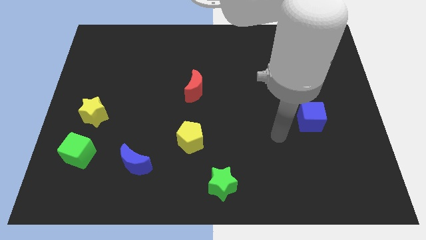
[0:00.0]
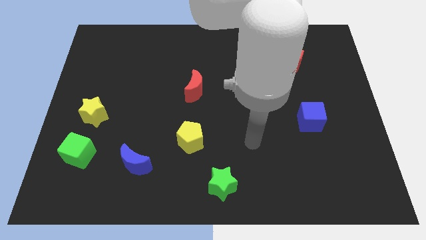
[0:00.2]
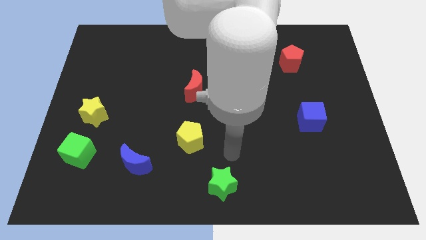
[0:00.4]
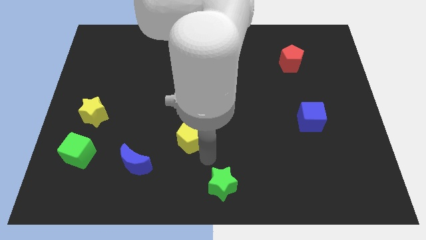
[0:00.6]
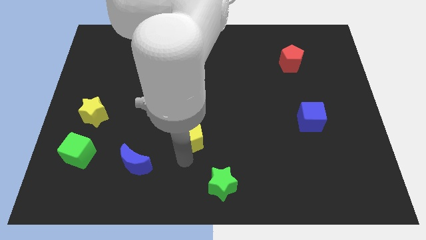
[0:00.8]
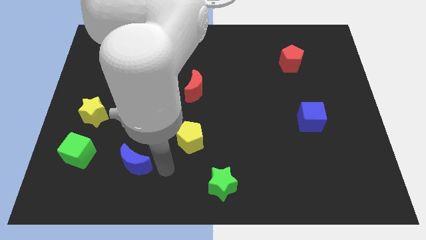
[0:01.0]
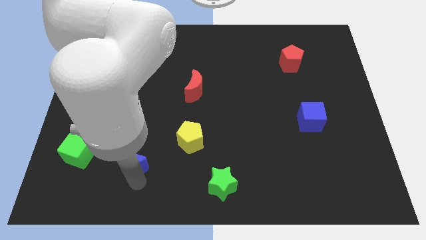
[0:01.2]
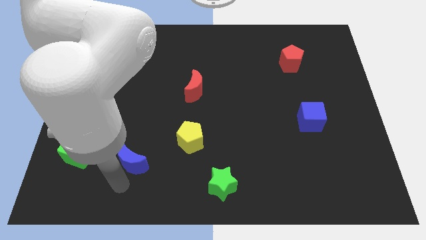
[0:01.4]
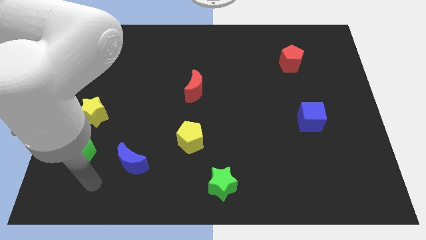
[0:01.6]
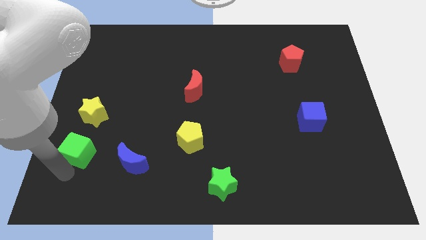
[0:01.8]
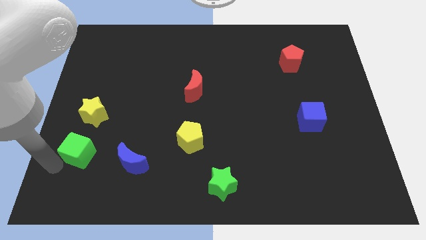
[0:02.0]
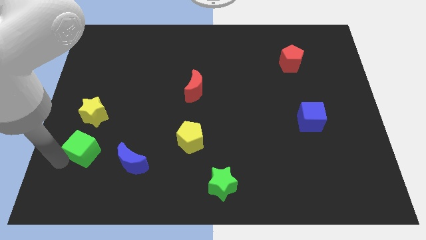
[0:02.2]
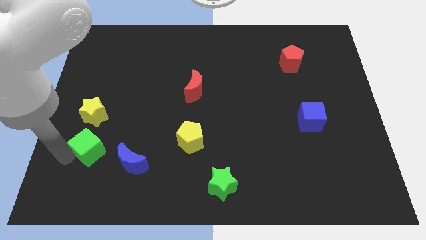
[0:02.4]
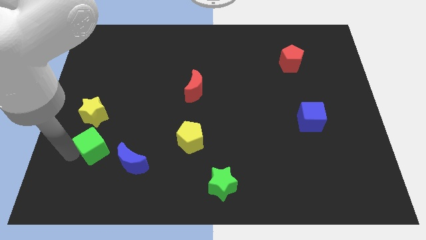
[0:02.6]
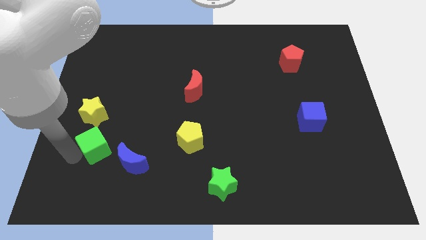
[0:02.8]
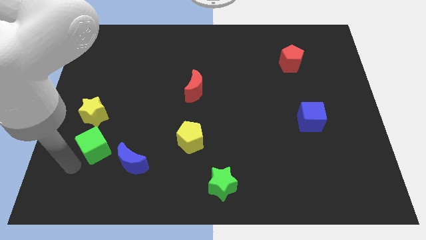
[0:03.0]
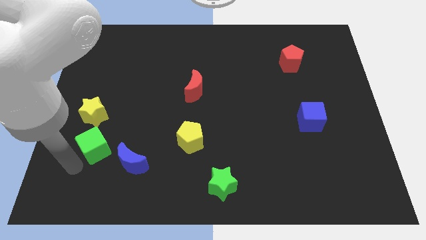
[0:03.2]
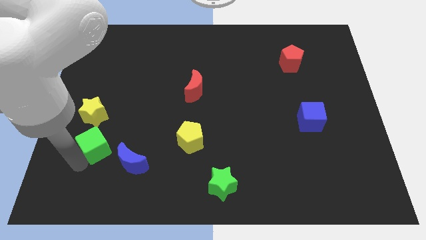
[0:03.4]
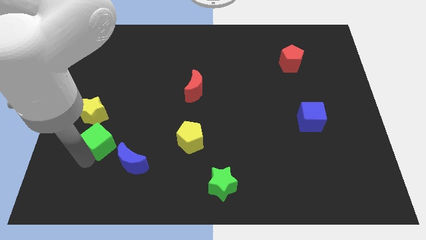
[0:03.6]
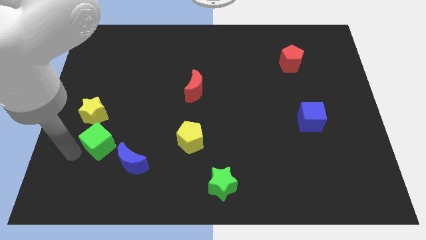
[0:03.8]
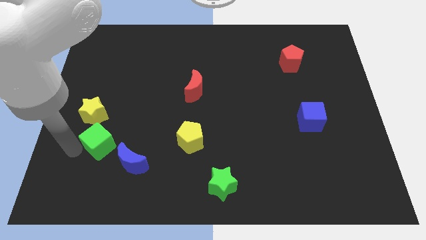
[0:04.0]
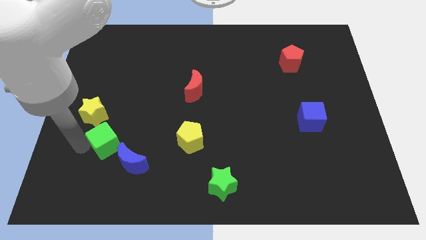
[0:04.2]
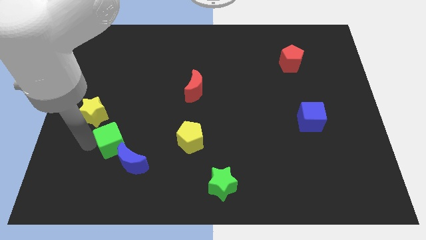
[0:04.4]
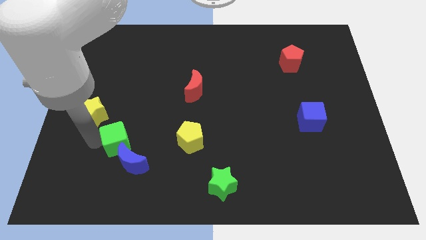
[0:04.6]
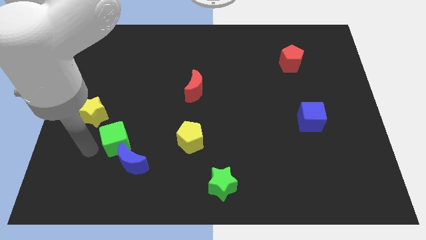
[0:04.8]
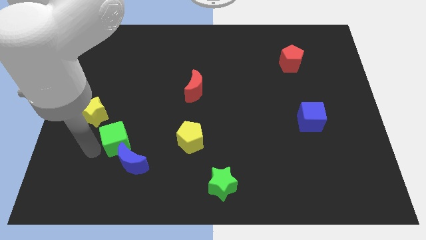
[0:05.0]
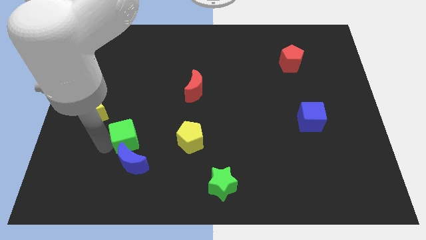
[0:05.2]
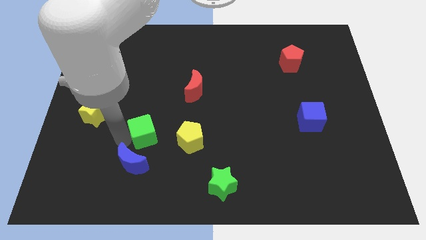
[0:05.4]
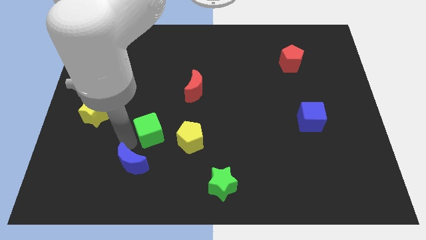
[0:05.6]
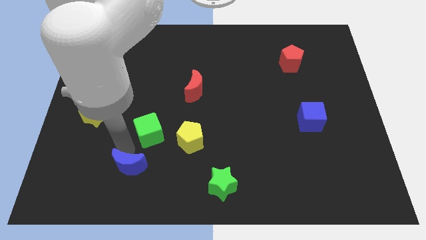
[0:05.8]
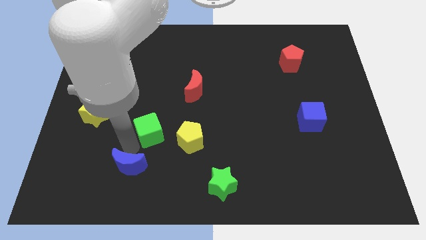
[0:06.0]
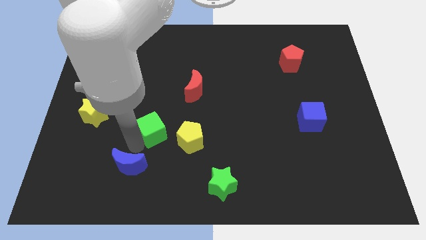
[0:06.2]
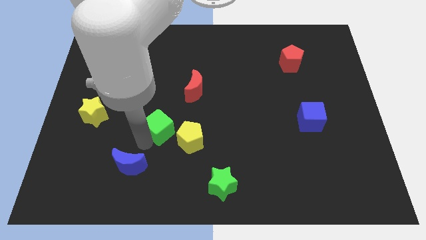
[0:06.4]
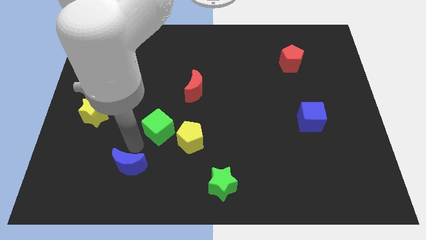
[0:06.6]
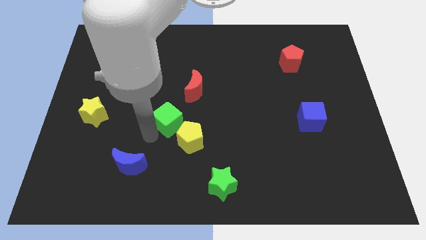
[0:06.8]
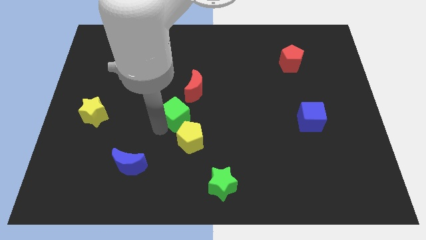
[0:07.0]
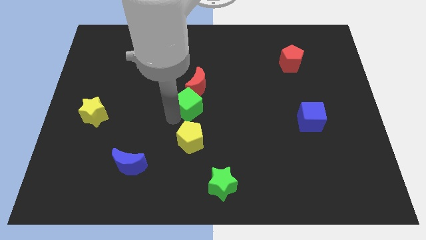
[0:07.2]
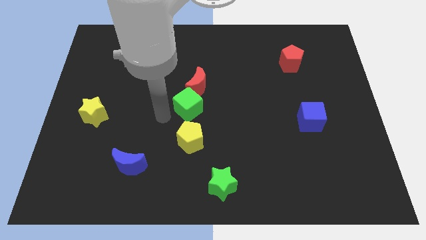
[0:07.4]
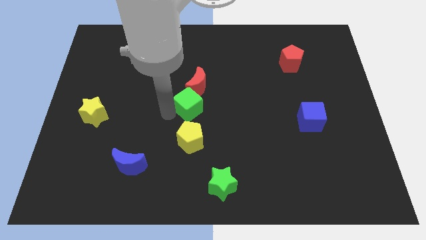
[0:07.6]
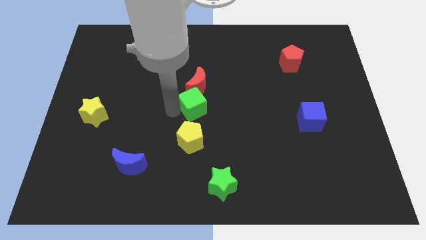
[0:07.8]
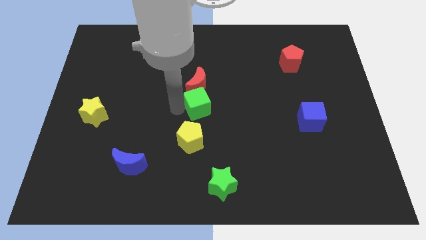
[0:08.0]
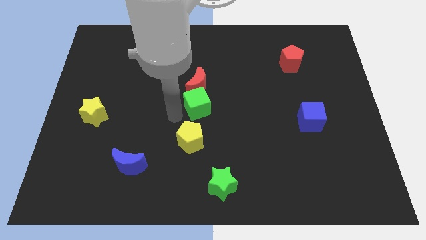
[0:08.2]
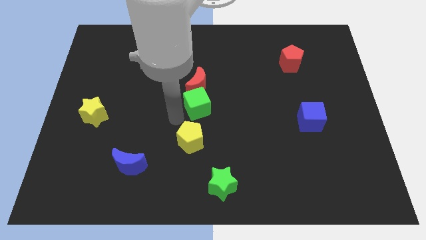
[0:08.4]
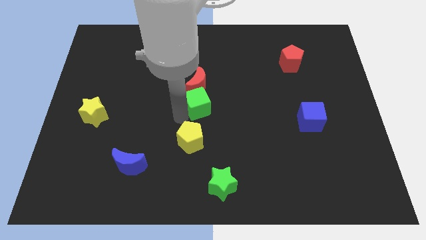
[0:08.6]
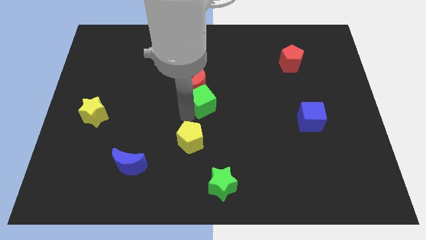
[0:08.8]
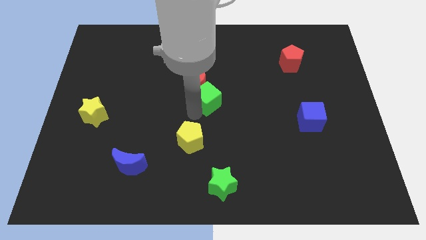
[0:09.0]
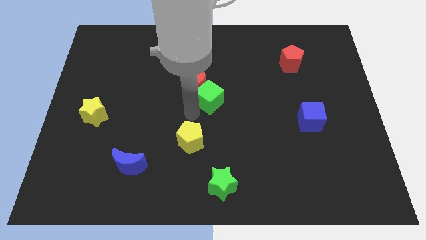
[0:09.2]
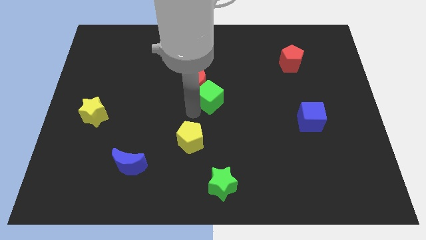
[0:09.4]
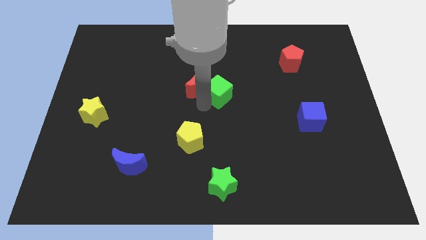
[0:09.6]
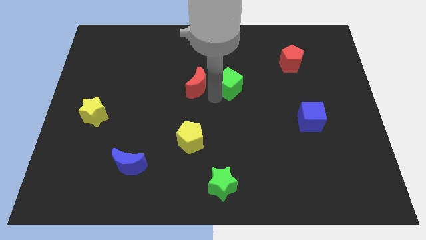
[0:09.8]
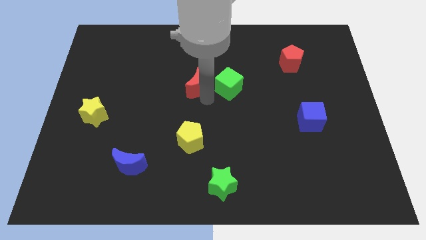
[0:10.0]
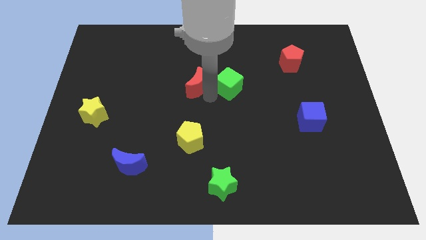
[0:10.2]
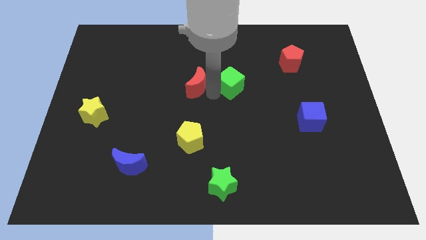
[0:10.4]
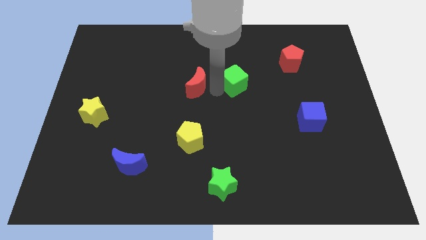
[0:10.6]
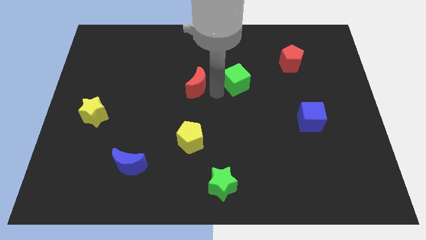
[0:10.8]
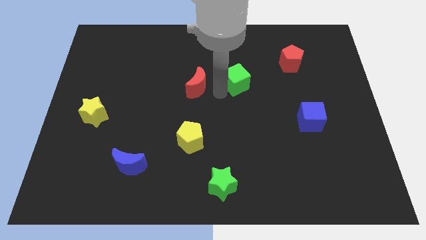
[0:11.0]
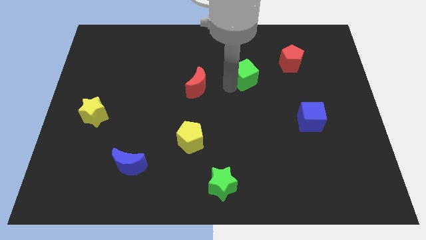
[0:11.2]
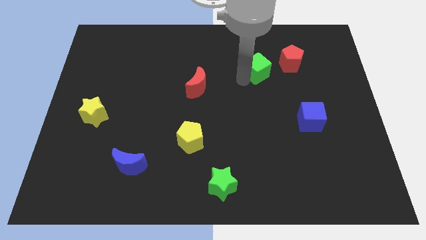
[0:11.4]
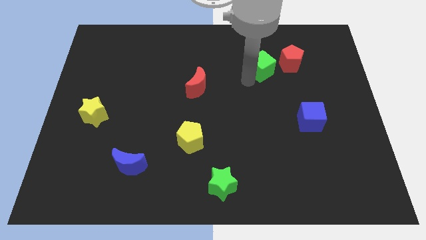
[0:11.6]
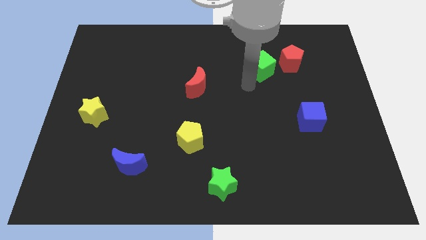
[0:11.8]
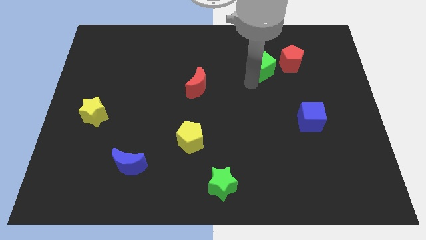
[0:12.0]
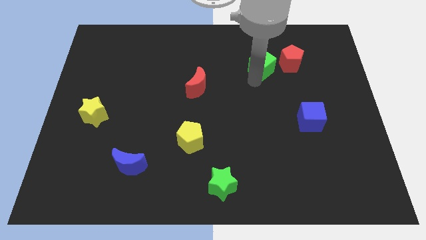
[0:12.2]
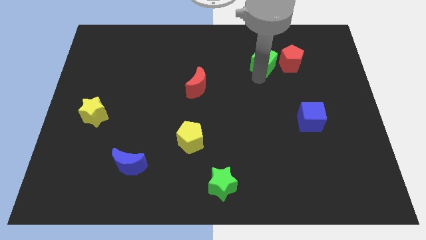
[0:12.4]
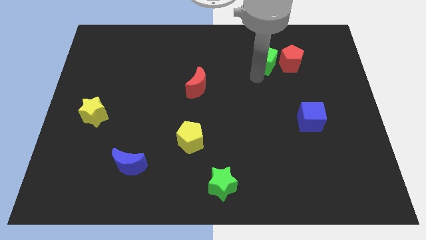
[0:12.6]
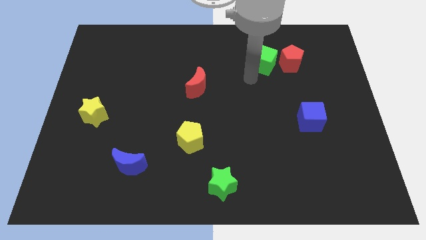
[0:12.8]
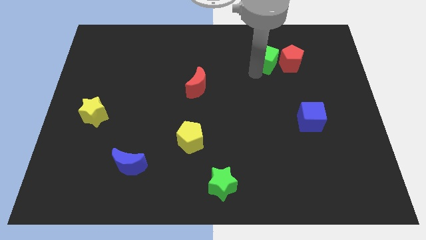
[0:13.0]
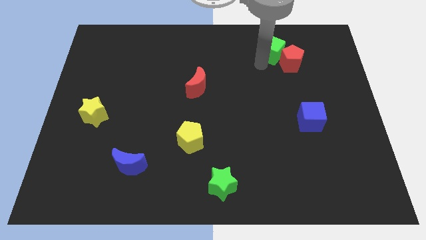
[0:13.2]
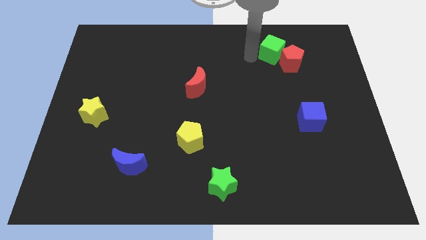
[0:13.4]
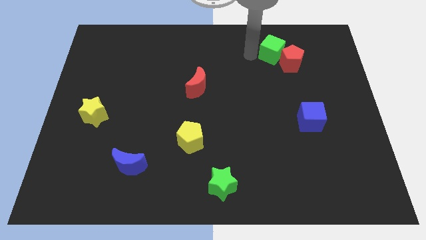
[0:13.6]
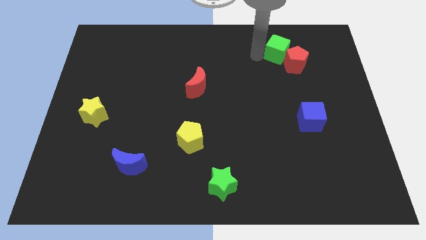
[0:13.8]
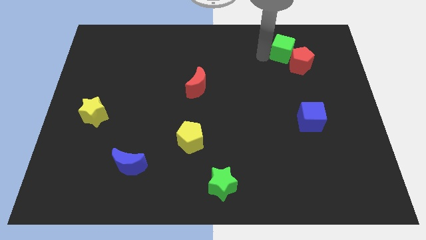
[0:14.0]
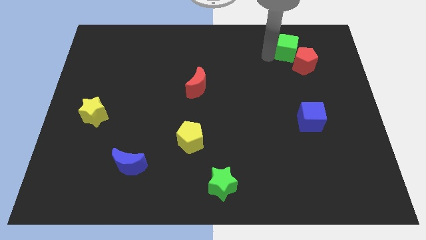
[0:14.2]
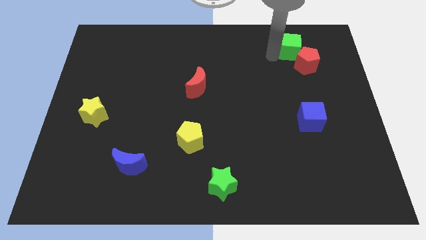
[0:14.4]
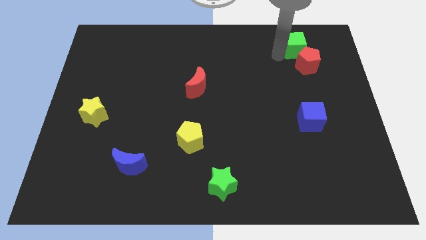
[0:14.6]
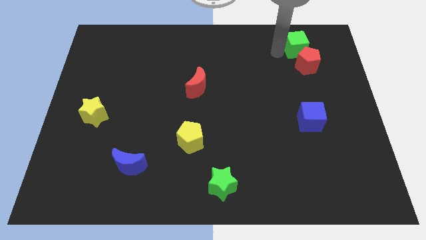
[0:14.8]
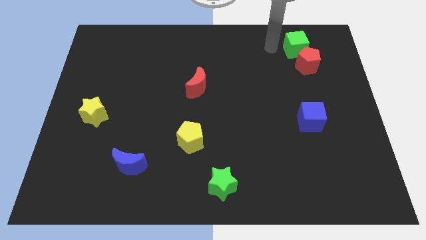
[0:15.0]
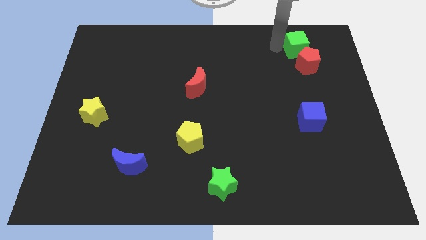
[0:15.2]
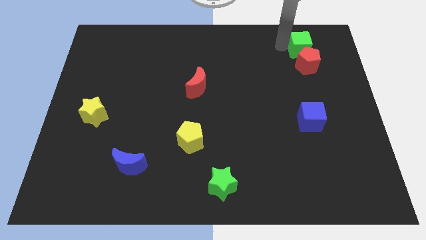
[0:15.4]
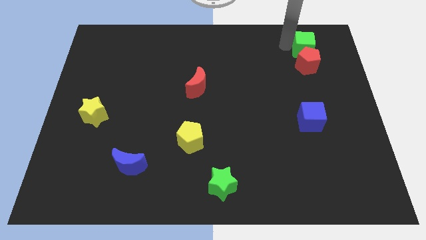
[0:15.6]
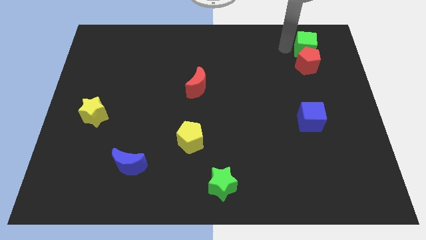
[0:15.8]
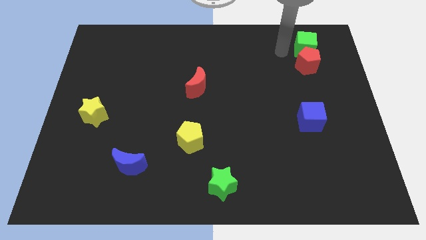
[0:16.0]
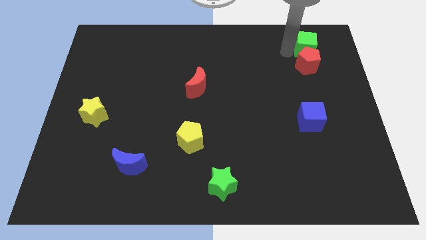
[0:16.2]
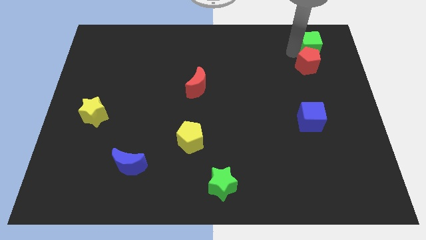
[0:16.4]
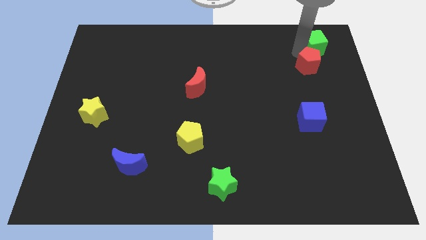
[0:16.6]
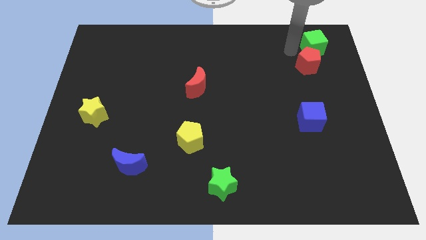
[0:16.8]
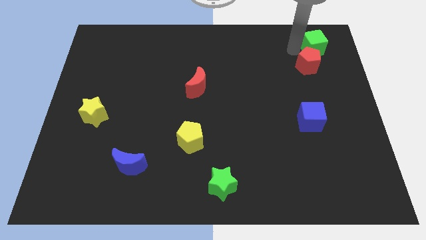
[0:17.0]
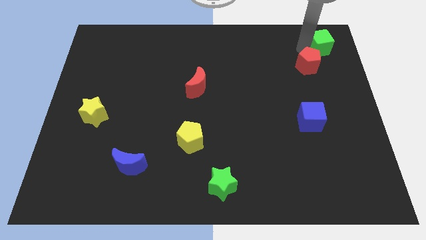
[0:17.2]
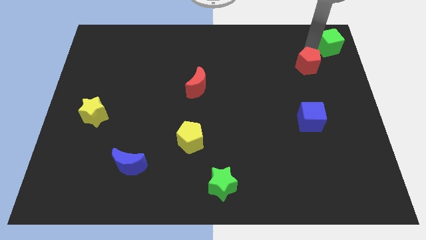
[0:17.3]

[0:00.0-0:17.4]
slide the green cube to the top right
